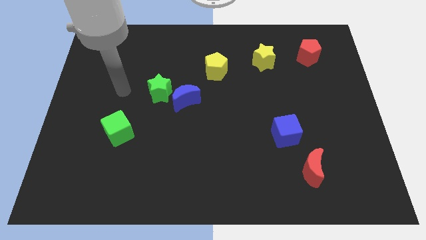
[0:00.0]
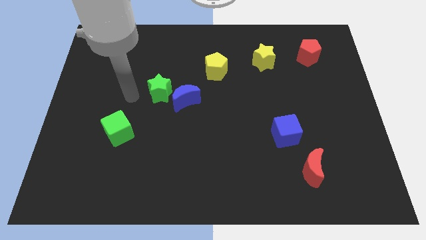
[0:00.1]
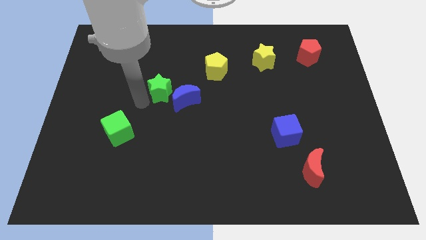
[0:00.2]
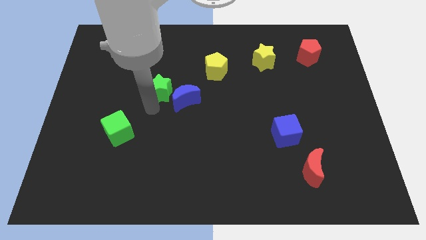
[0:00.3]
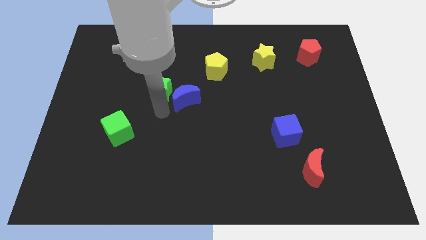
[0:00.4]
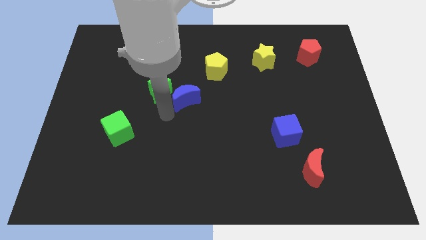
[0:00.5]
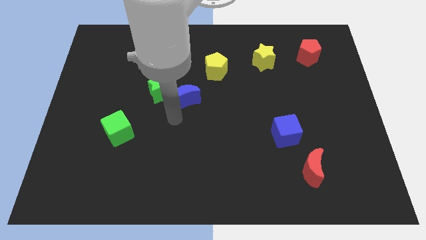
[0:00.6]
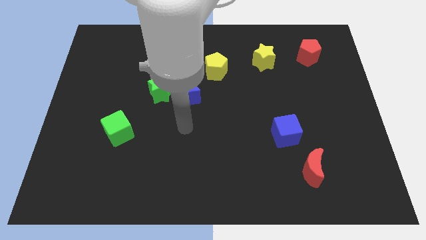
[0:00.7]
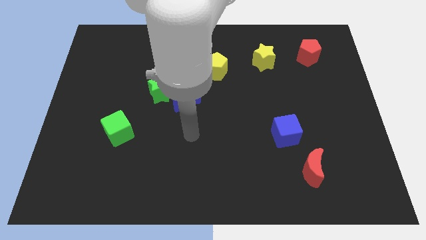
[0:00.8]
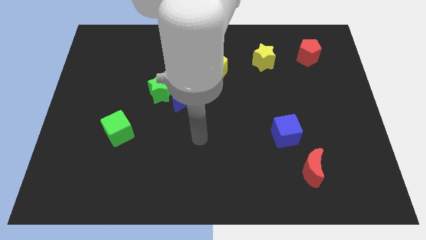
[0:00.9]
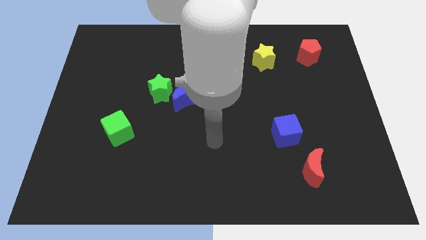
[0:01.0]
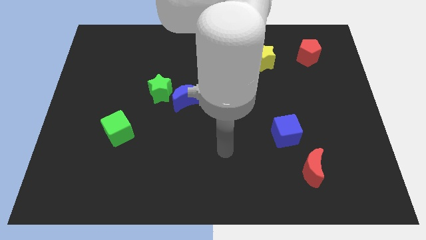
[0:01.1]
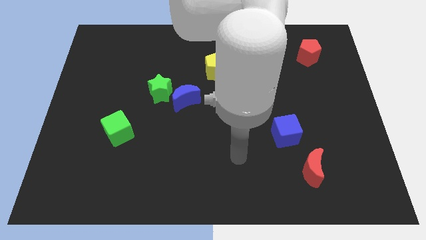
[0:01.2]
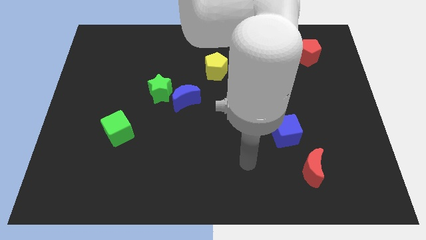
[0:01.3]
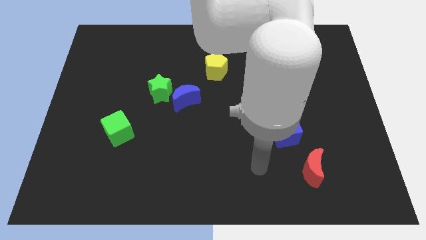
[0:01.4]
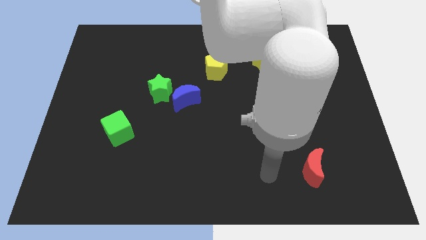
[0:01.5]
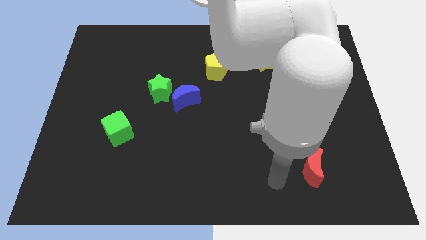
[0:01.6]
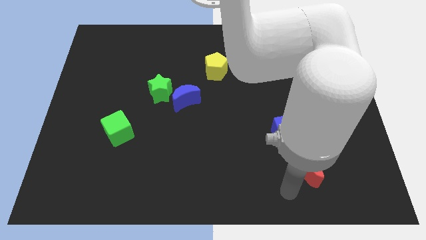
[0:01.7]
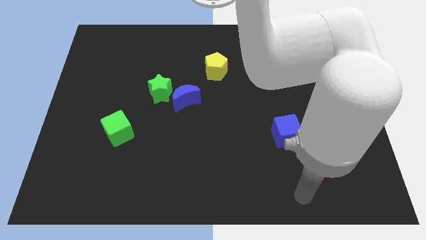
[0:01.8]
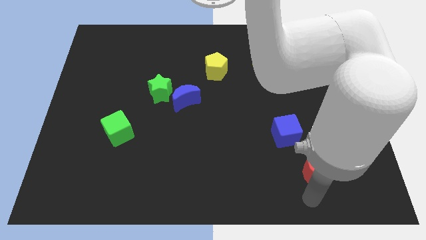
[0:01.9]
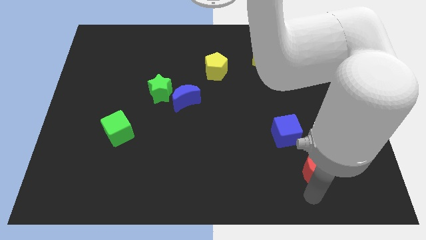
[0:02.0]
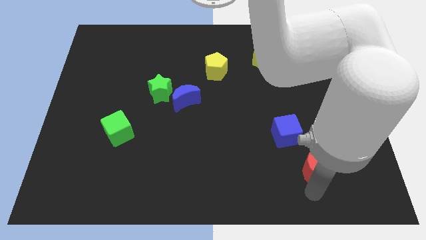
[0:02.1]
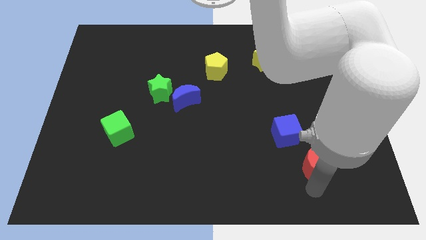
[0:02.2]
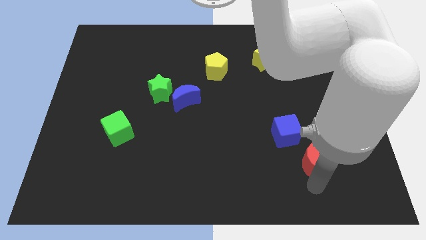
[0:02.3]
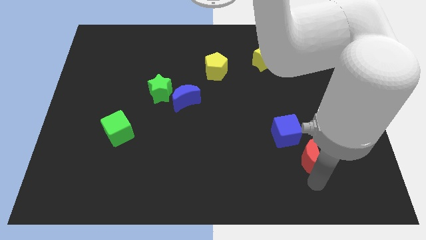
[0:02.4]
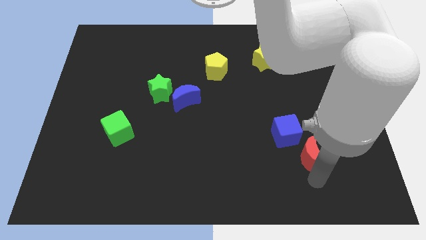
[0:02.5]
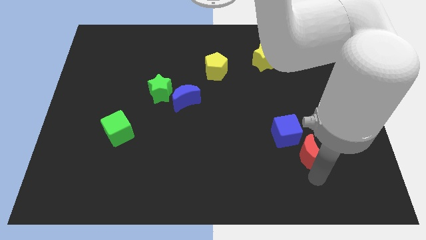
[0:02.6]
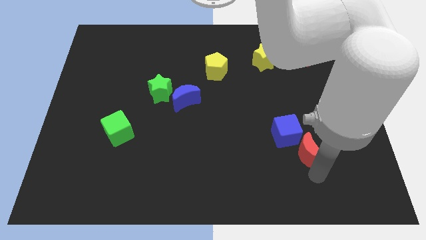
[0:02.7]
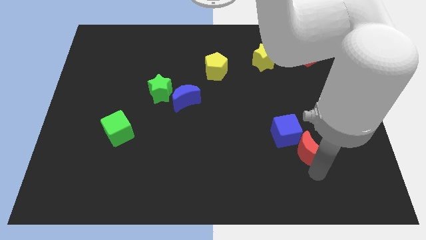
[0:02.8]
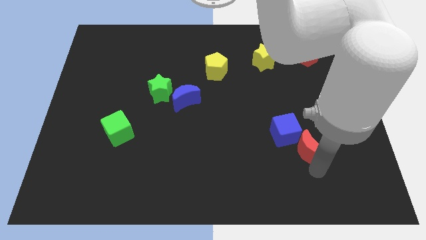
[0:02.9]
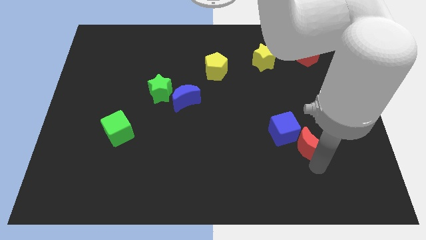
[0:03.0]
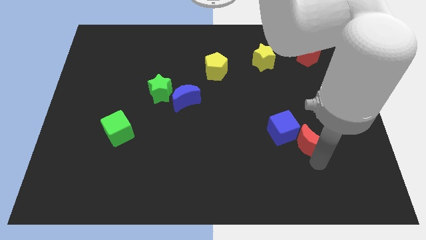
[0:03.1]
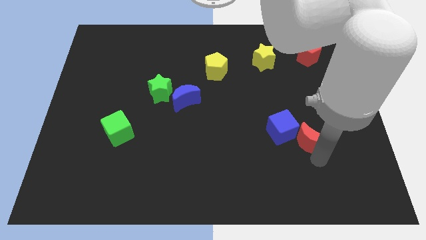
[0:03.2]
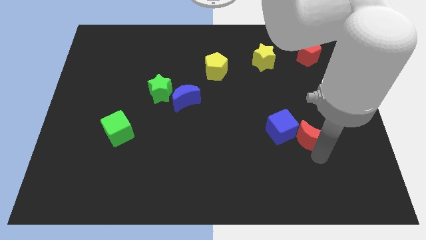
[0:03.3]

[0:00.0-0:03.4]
slide the red moon slightly upwards

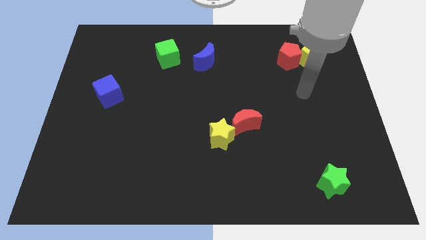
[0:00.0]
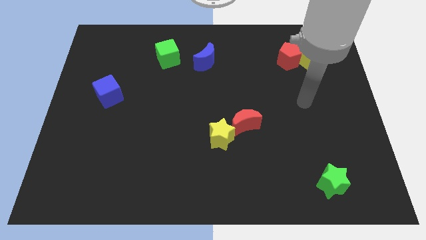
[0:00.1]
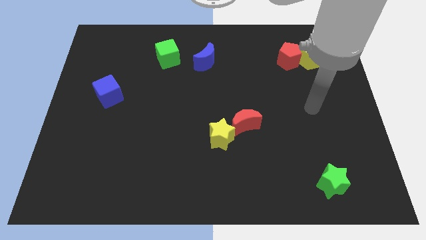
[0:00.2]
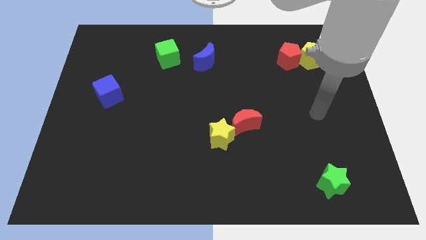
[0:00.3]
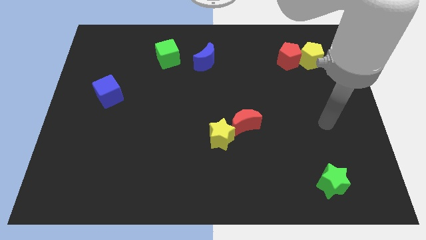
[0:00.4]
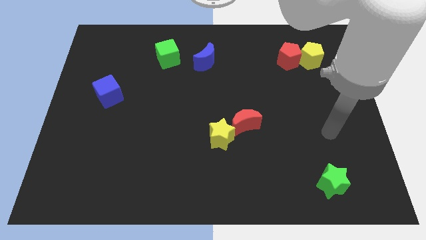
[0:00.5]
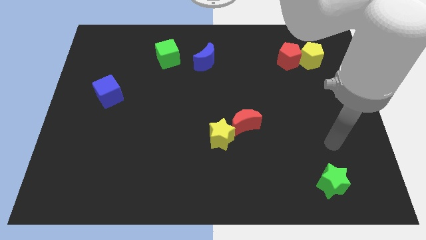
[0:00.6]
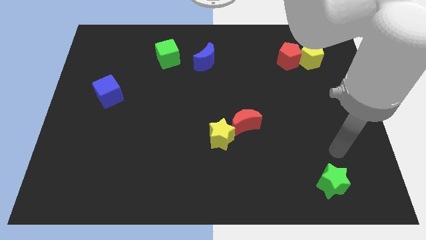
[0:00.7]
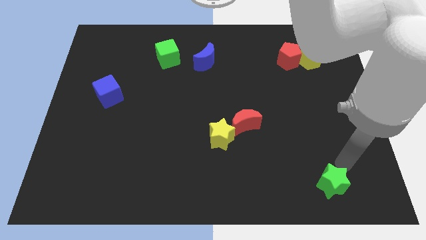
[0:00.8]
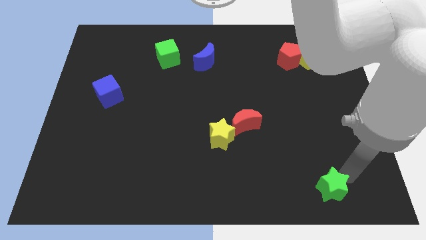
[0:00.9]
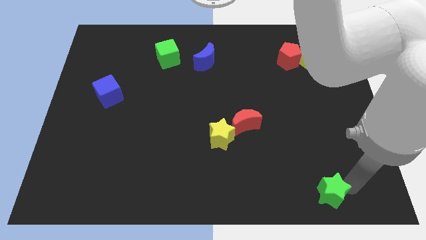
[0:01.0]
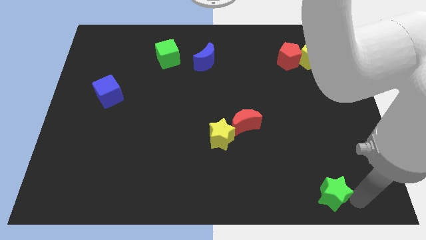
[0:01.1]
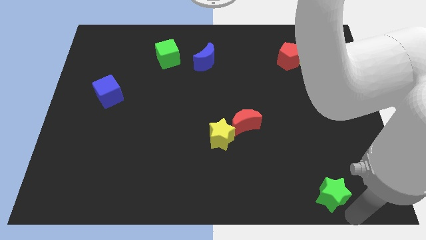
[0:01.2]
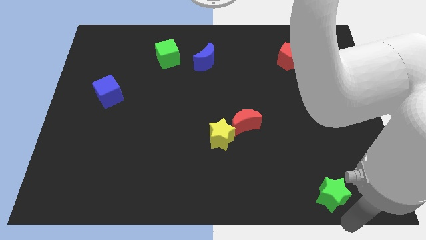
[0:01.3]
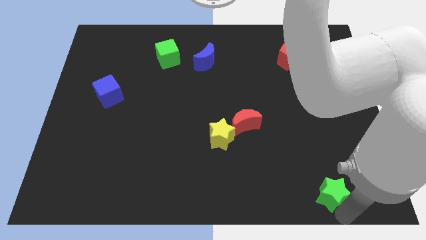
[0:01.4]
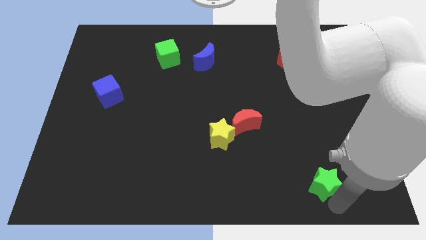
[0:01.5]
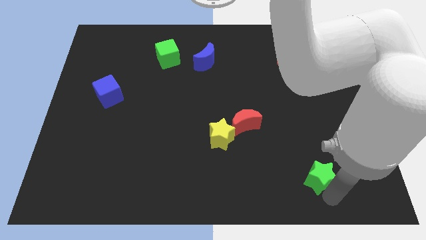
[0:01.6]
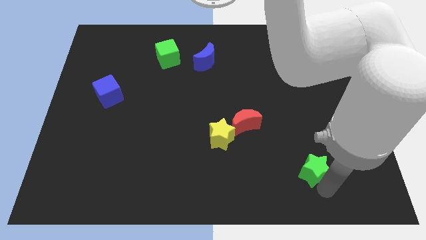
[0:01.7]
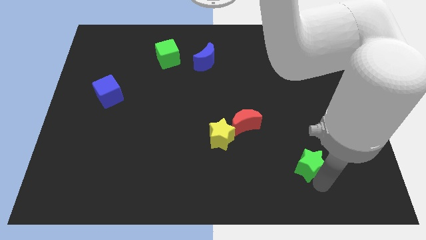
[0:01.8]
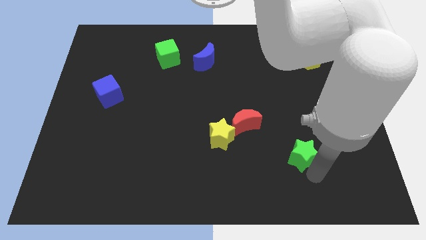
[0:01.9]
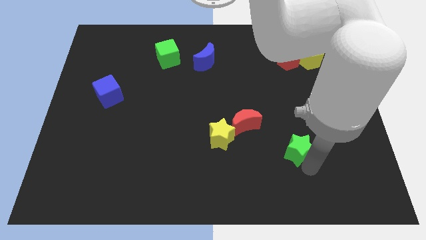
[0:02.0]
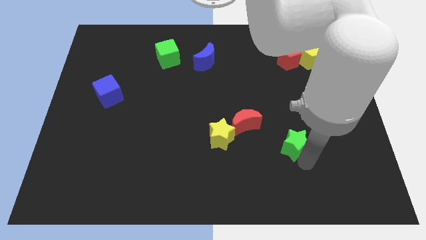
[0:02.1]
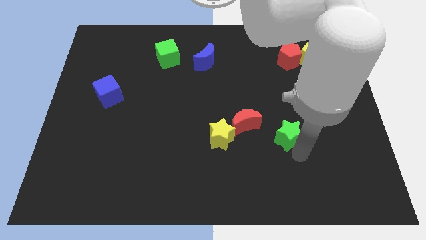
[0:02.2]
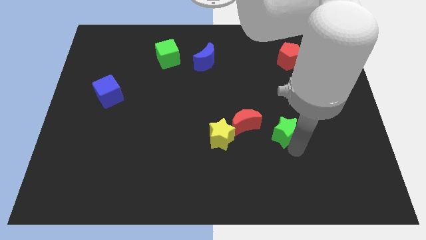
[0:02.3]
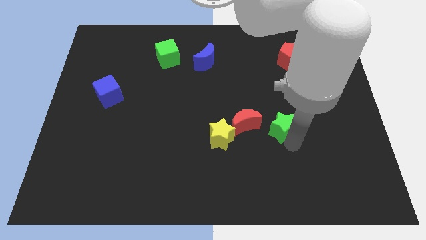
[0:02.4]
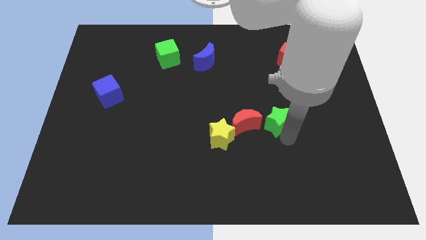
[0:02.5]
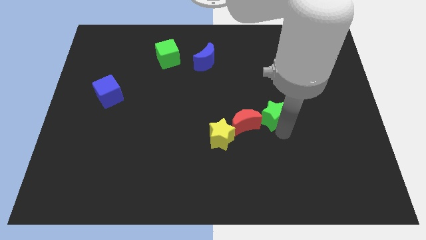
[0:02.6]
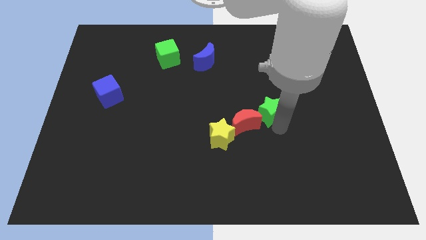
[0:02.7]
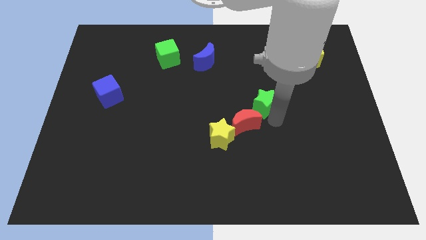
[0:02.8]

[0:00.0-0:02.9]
slide the green star up and then to the left

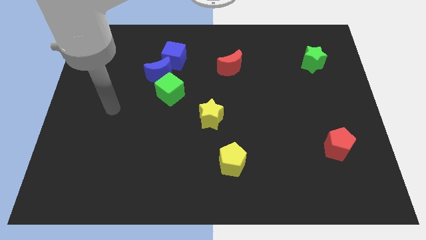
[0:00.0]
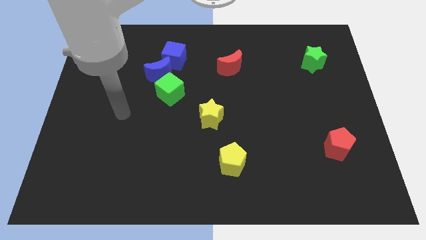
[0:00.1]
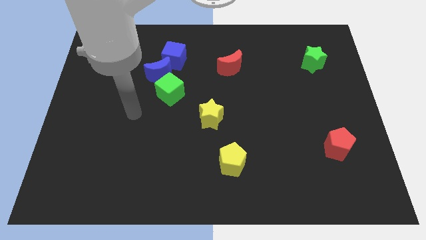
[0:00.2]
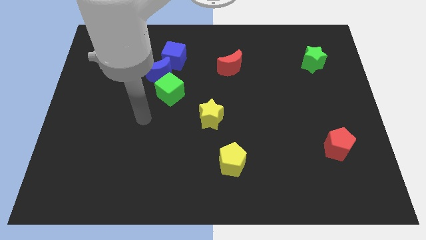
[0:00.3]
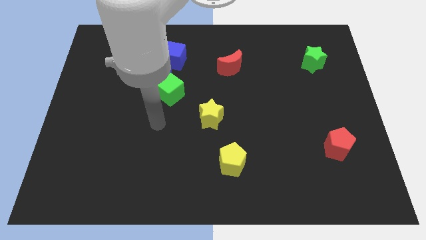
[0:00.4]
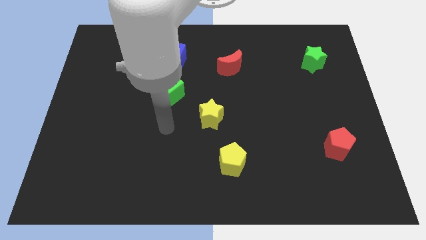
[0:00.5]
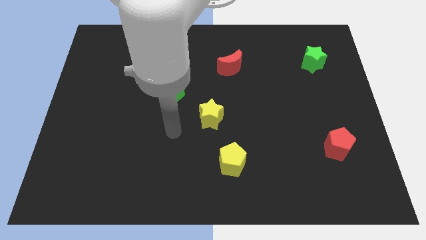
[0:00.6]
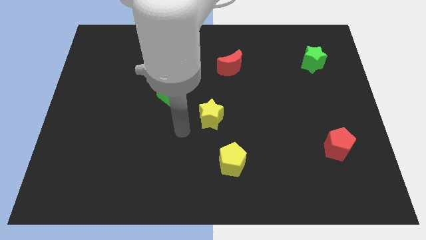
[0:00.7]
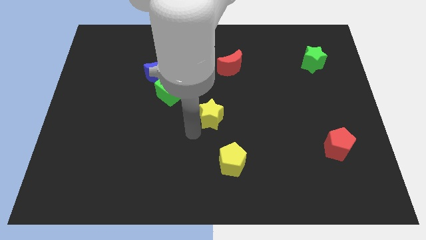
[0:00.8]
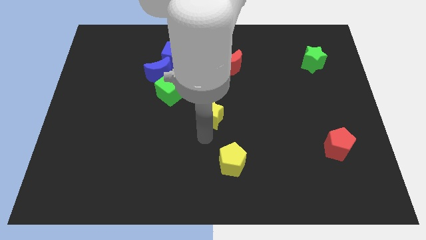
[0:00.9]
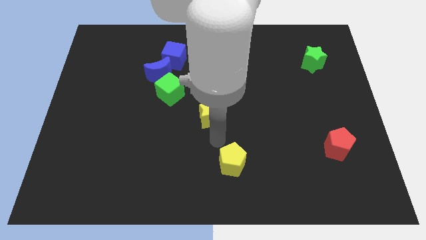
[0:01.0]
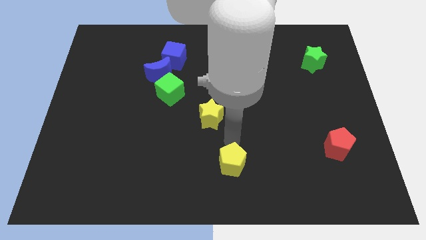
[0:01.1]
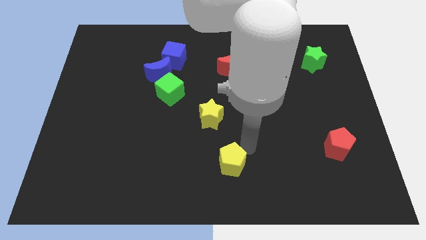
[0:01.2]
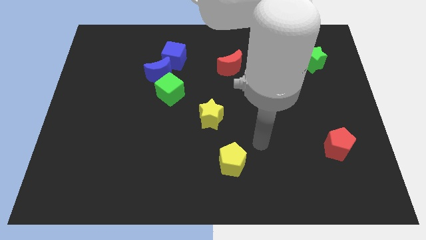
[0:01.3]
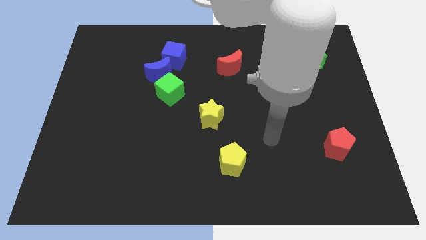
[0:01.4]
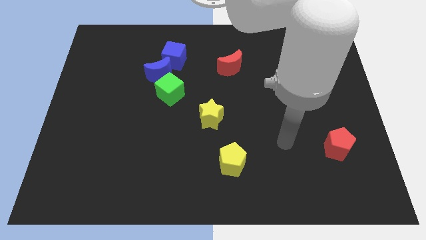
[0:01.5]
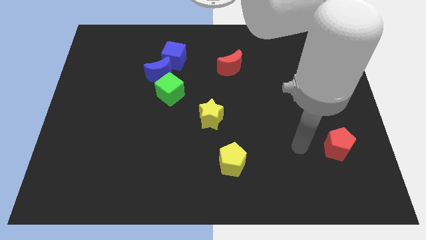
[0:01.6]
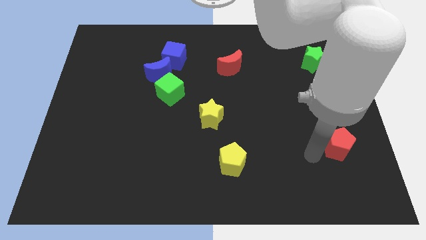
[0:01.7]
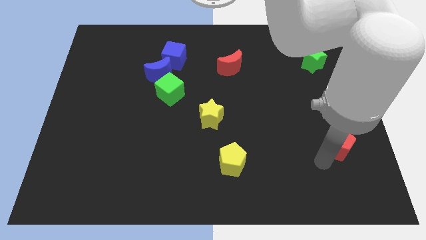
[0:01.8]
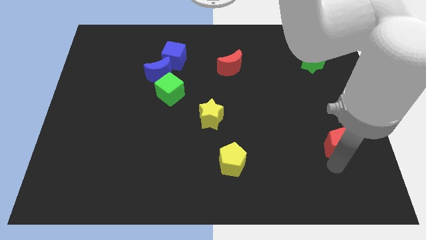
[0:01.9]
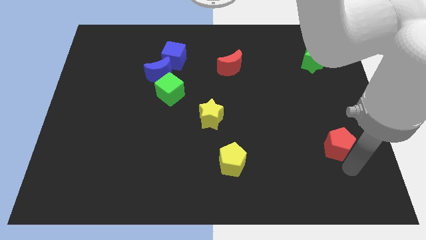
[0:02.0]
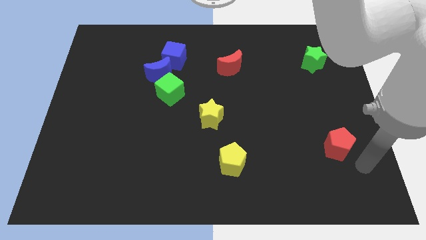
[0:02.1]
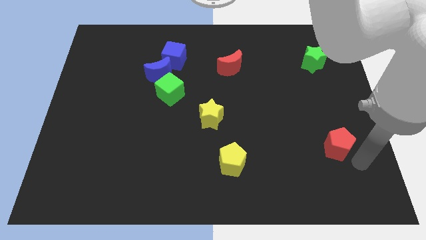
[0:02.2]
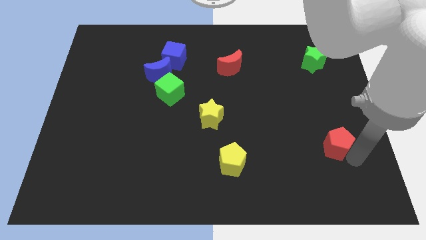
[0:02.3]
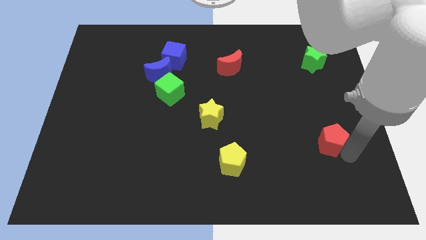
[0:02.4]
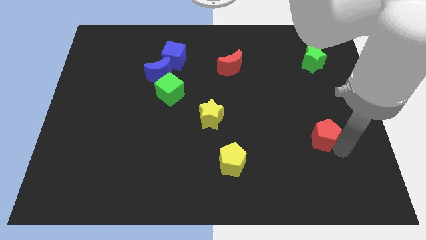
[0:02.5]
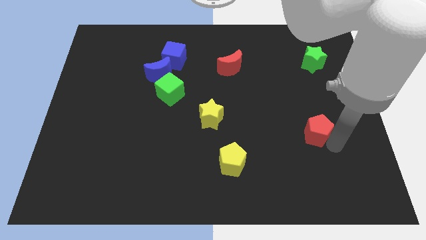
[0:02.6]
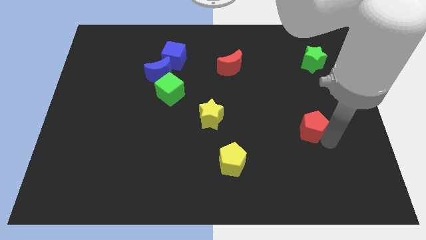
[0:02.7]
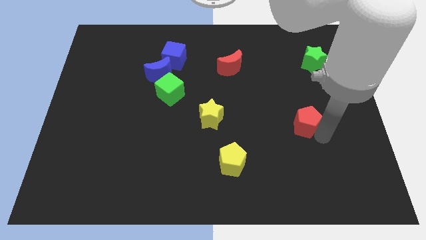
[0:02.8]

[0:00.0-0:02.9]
push the red pentagon a little up and left
